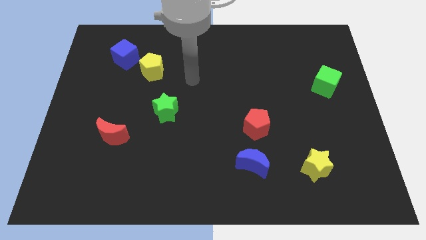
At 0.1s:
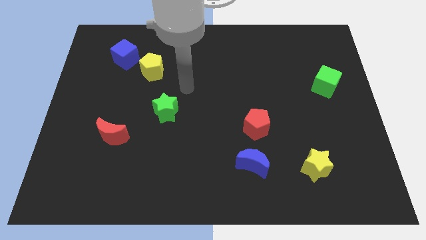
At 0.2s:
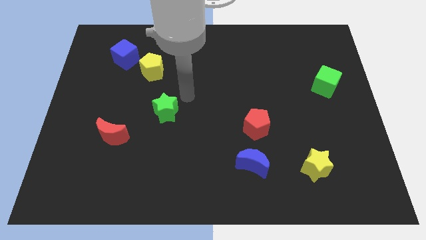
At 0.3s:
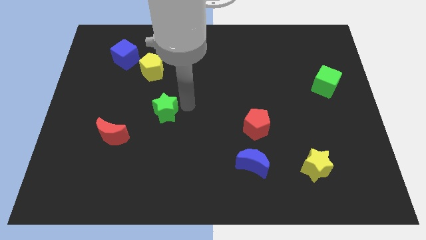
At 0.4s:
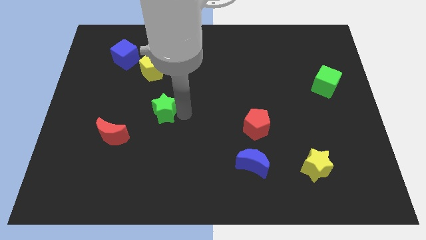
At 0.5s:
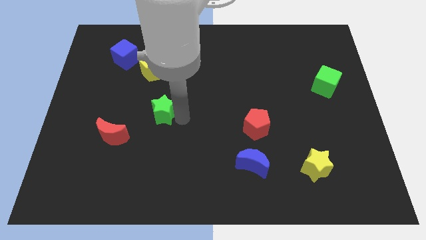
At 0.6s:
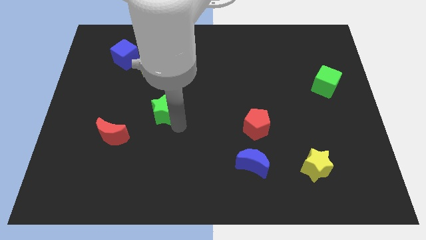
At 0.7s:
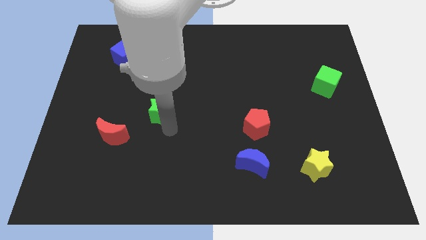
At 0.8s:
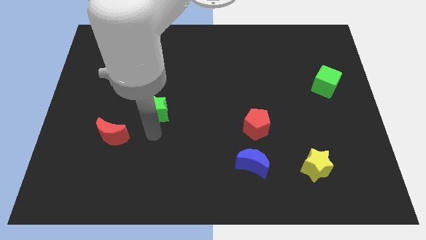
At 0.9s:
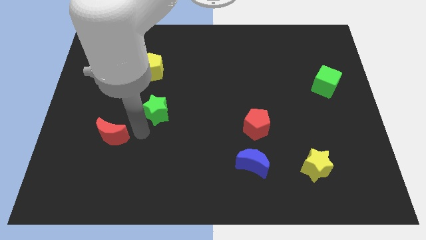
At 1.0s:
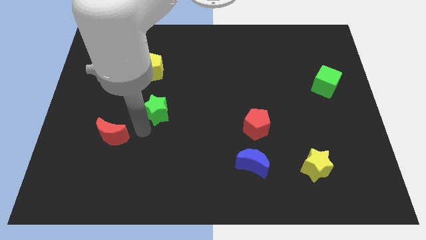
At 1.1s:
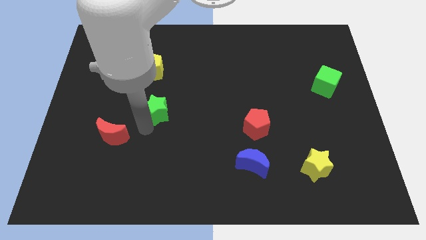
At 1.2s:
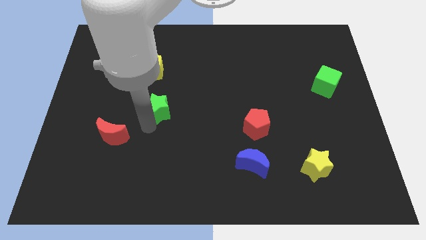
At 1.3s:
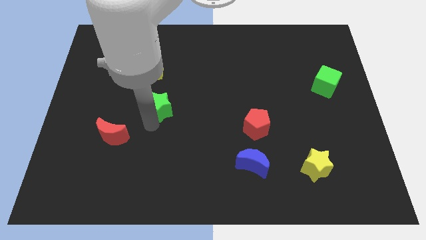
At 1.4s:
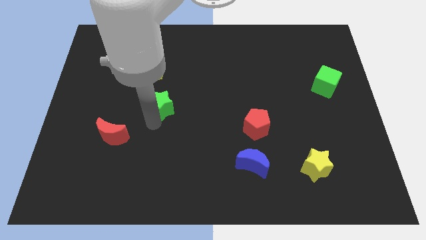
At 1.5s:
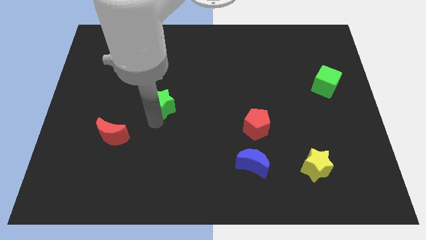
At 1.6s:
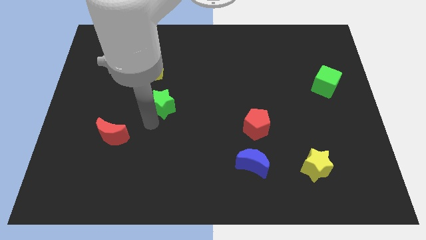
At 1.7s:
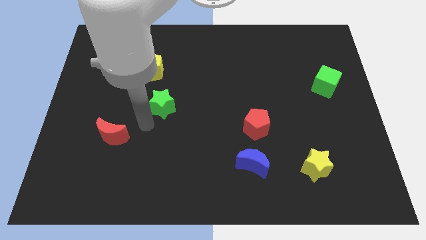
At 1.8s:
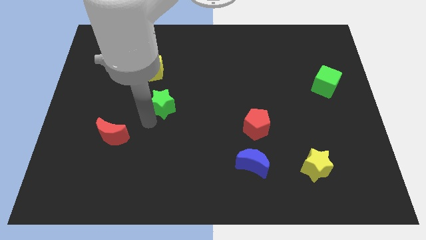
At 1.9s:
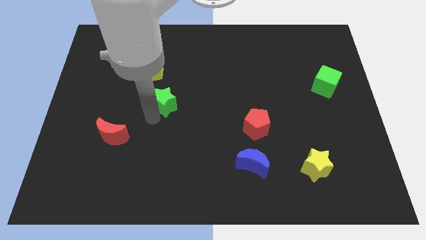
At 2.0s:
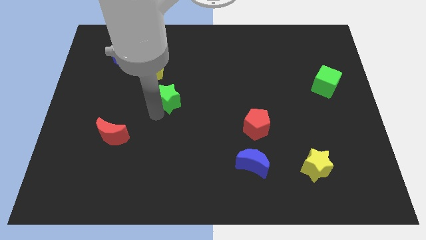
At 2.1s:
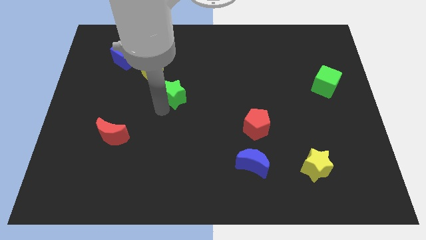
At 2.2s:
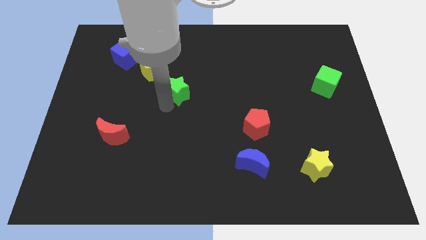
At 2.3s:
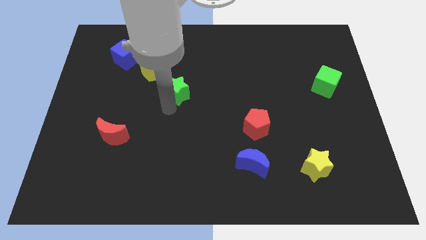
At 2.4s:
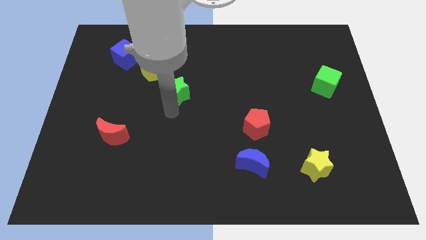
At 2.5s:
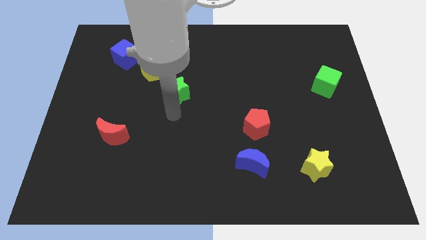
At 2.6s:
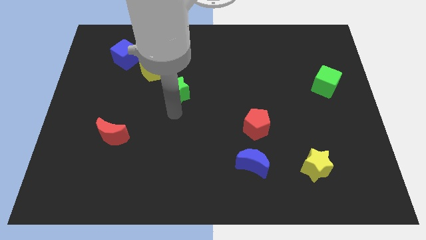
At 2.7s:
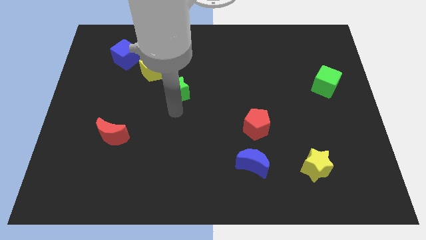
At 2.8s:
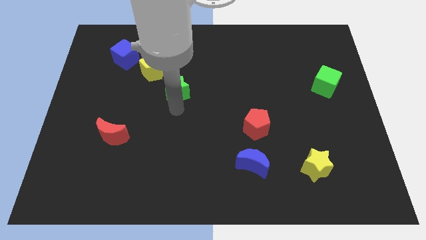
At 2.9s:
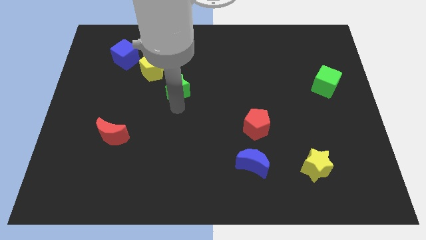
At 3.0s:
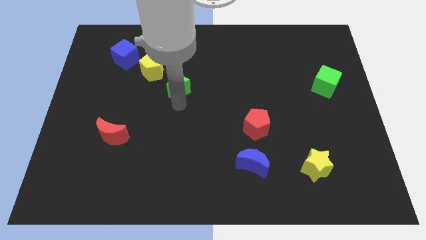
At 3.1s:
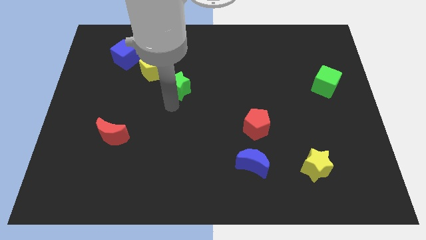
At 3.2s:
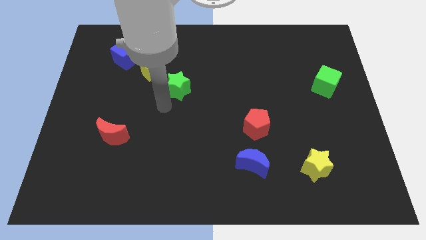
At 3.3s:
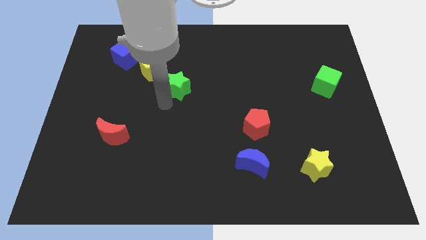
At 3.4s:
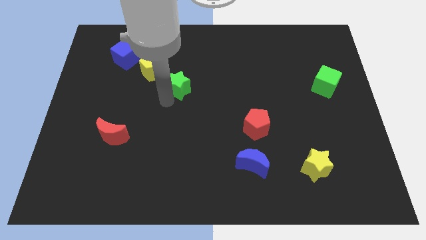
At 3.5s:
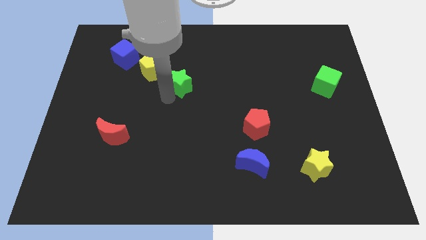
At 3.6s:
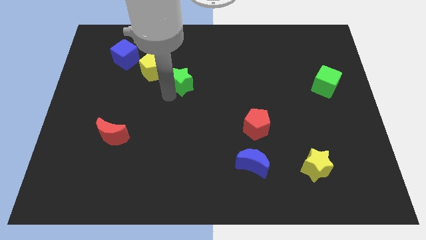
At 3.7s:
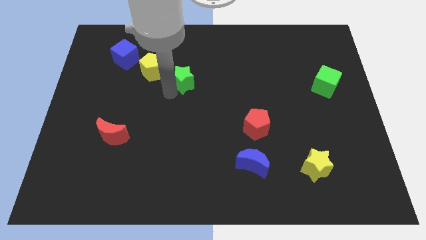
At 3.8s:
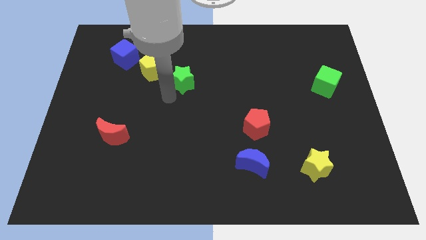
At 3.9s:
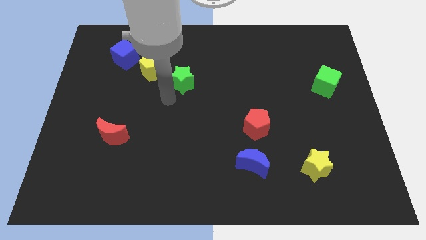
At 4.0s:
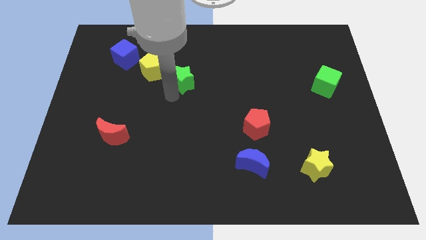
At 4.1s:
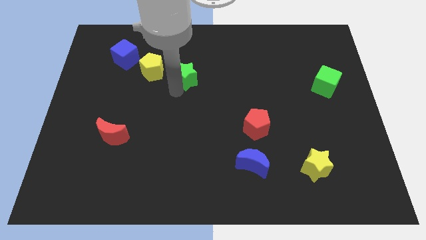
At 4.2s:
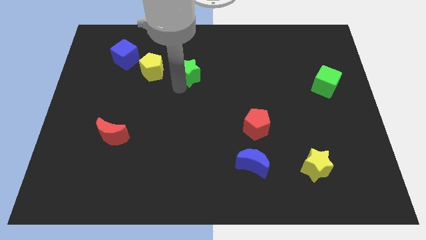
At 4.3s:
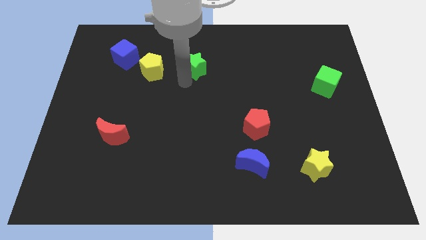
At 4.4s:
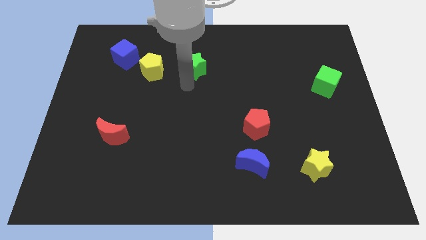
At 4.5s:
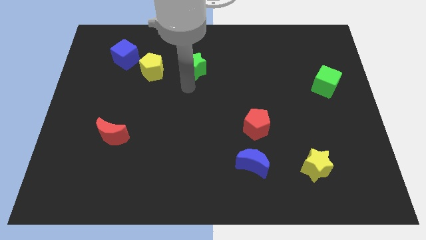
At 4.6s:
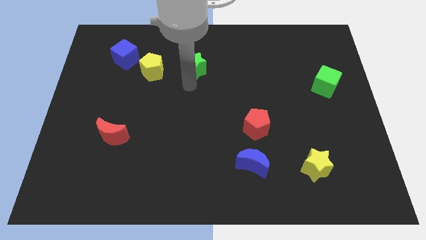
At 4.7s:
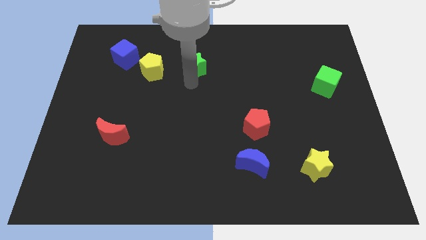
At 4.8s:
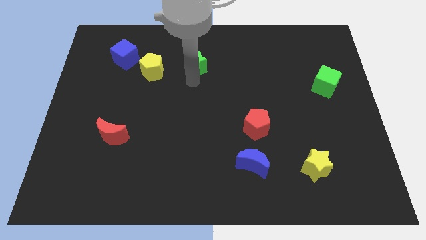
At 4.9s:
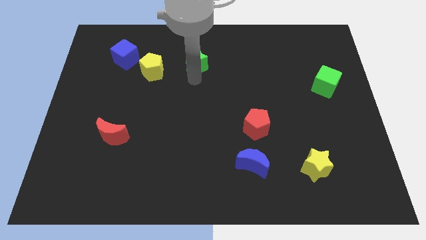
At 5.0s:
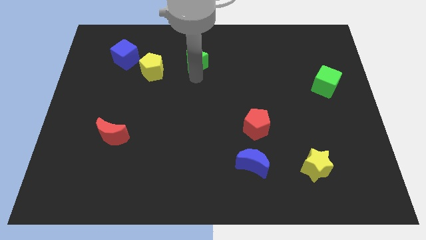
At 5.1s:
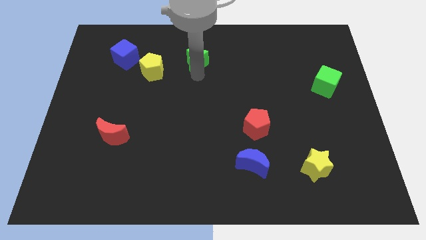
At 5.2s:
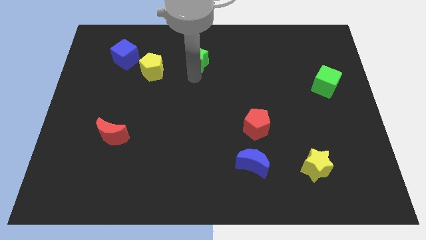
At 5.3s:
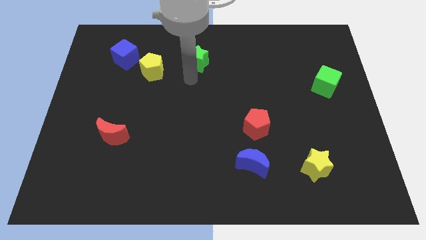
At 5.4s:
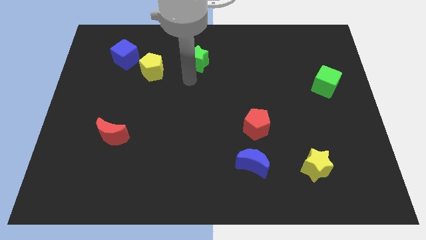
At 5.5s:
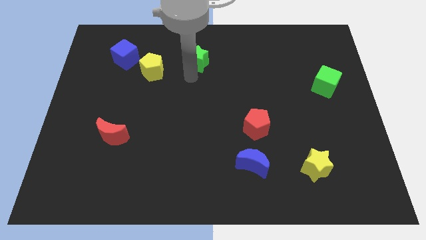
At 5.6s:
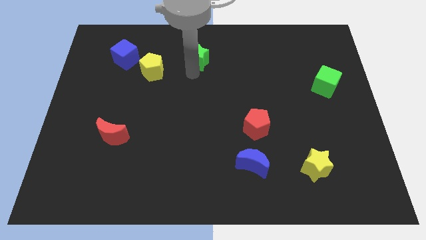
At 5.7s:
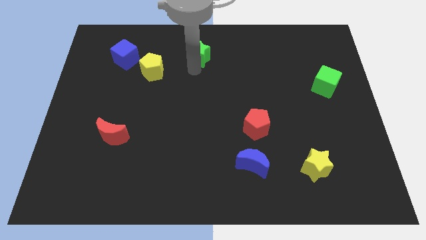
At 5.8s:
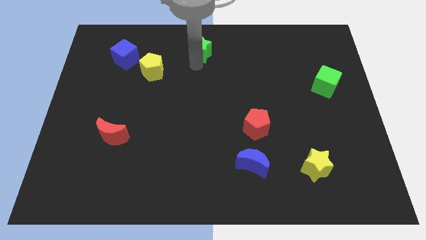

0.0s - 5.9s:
slide the green star to the top

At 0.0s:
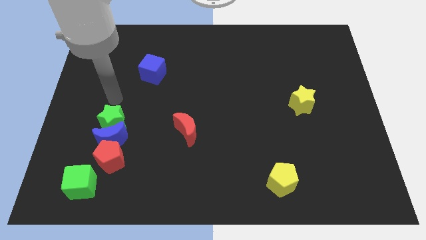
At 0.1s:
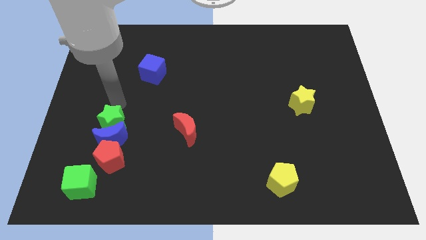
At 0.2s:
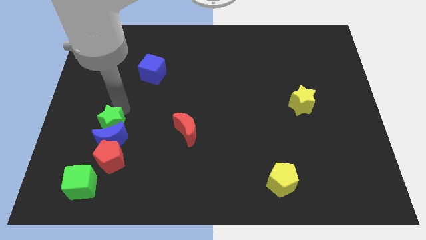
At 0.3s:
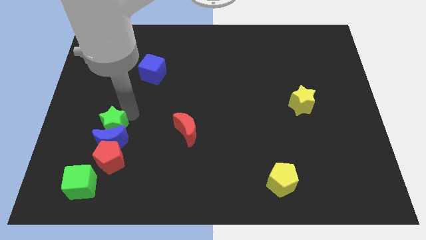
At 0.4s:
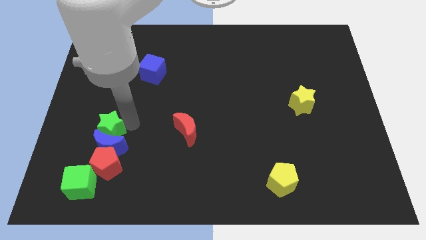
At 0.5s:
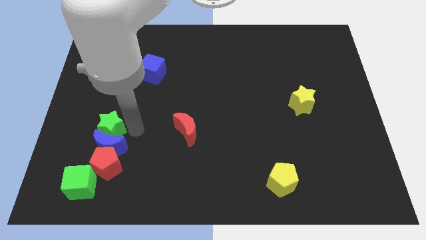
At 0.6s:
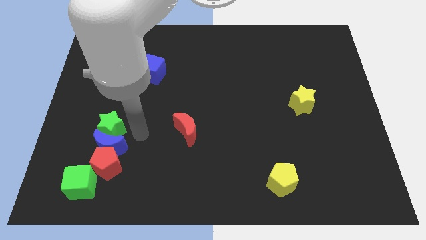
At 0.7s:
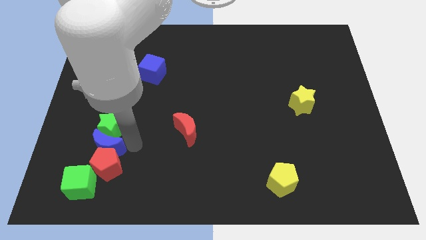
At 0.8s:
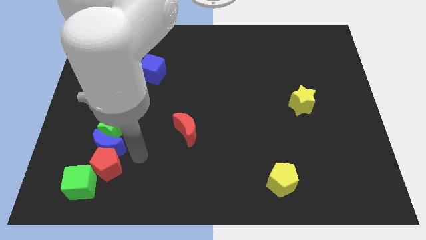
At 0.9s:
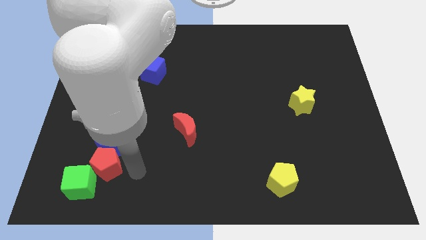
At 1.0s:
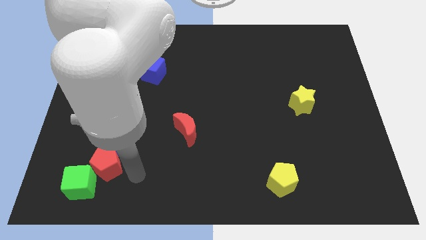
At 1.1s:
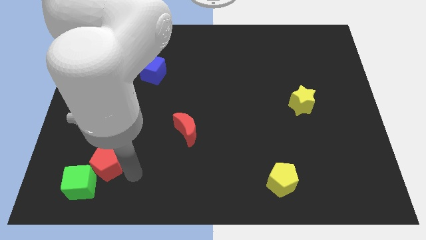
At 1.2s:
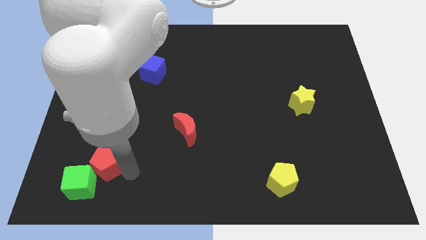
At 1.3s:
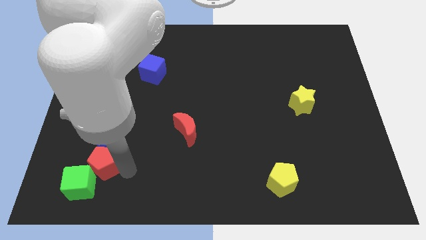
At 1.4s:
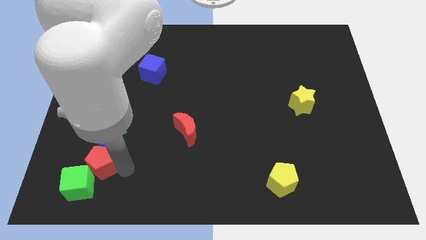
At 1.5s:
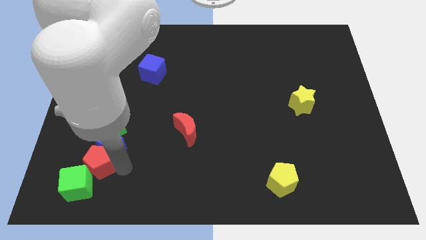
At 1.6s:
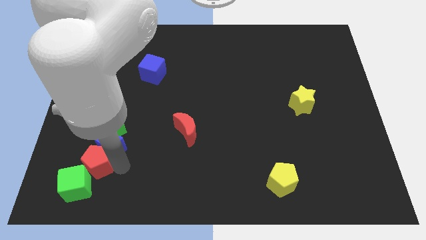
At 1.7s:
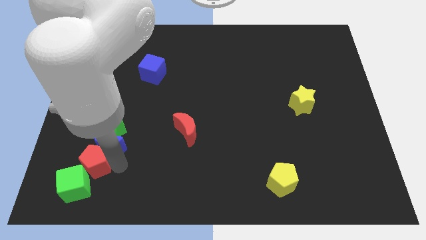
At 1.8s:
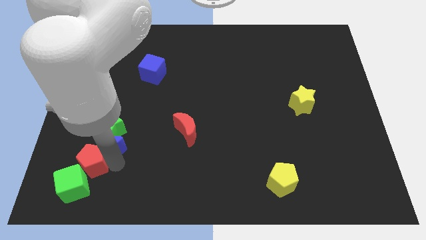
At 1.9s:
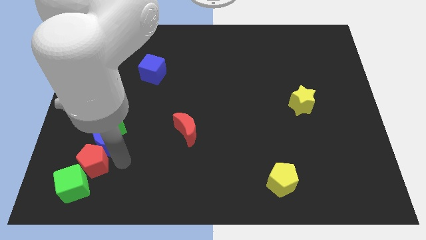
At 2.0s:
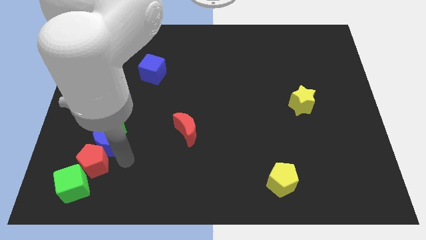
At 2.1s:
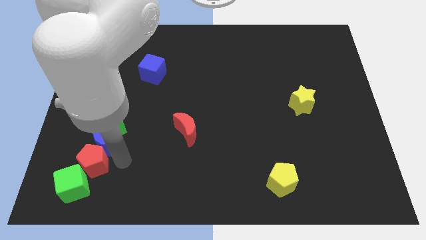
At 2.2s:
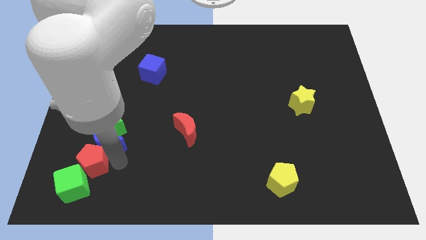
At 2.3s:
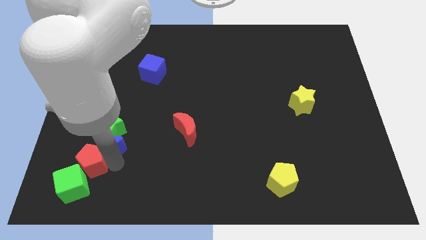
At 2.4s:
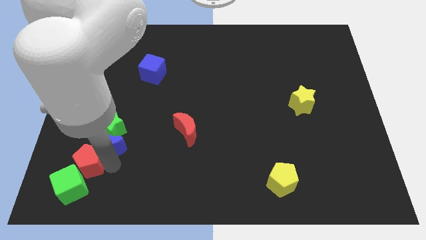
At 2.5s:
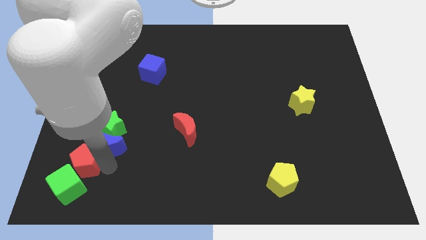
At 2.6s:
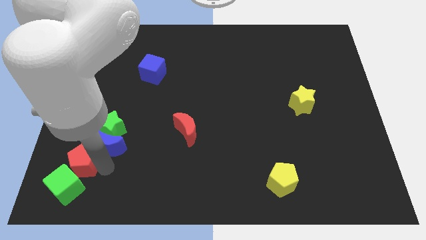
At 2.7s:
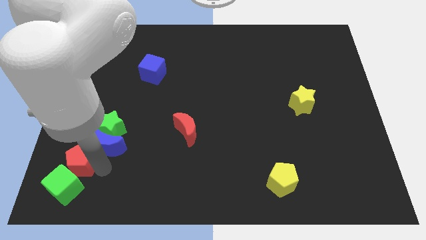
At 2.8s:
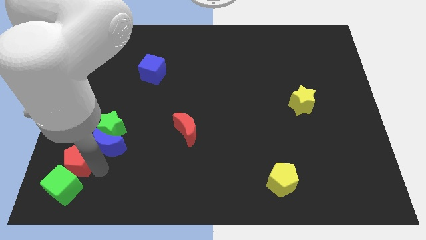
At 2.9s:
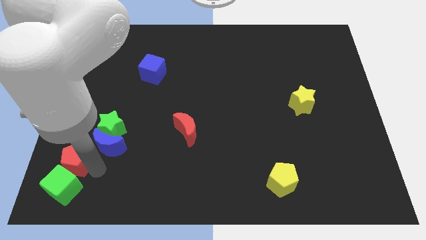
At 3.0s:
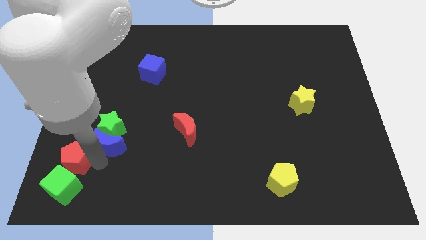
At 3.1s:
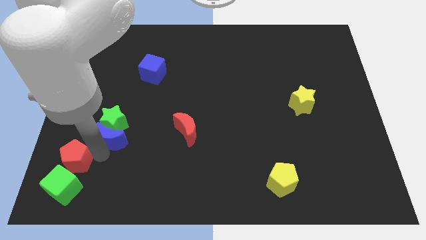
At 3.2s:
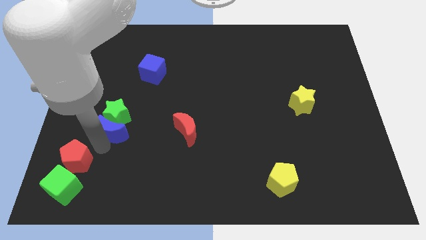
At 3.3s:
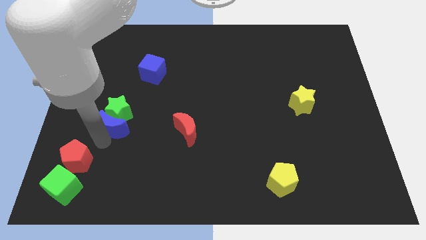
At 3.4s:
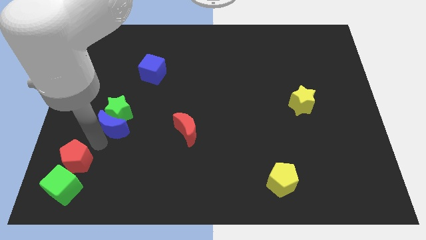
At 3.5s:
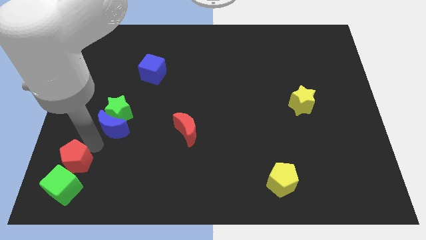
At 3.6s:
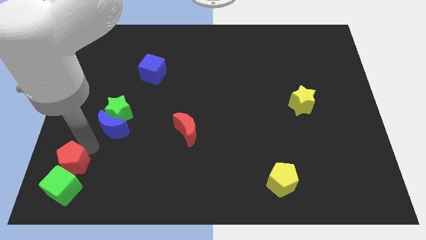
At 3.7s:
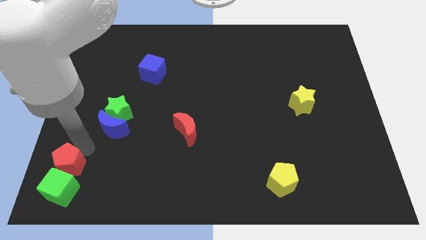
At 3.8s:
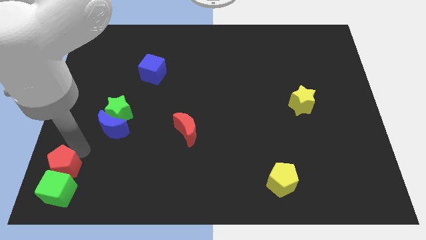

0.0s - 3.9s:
move the red pentagon to the lower left corner
